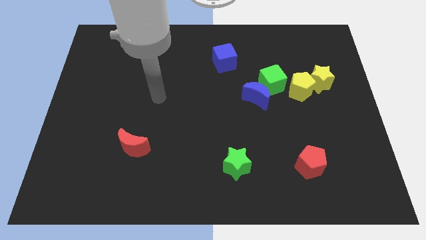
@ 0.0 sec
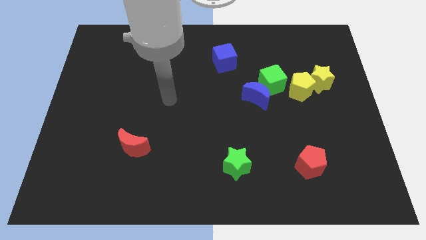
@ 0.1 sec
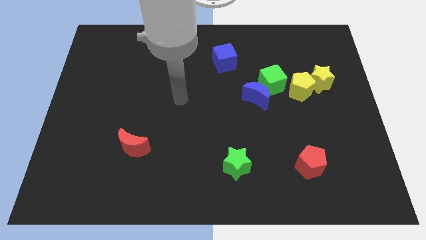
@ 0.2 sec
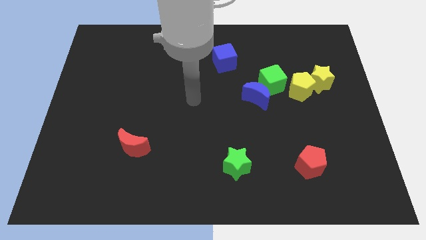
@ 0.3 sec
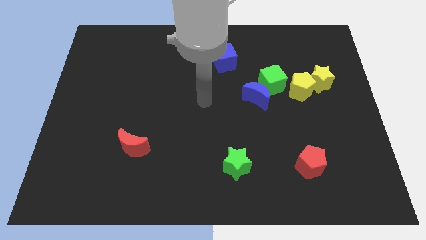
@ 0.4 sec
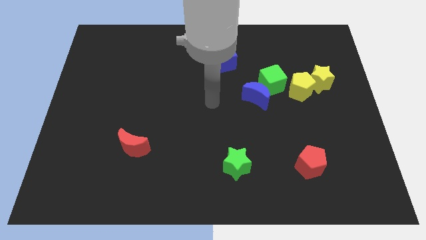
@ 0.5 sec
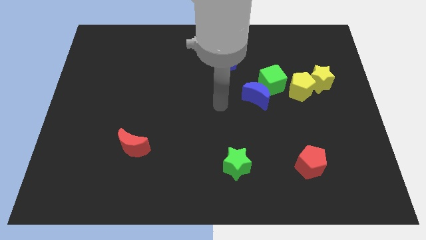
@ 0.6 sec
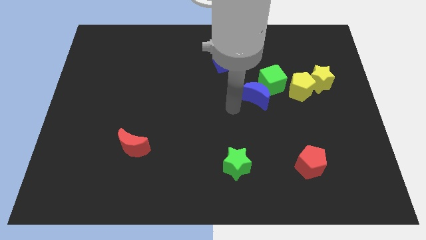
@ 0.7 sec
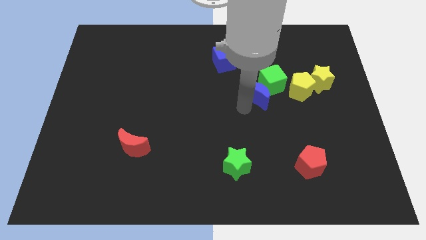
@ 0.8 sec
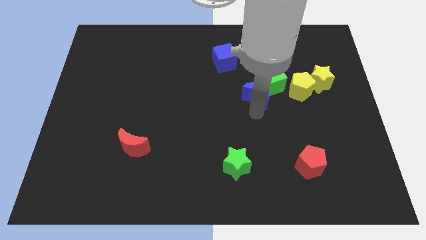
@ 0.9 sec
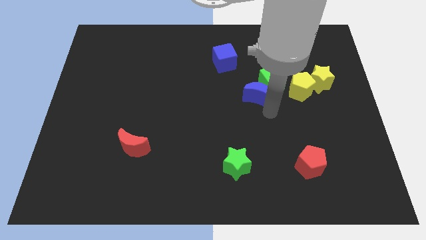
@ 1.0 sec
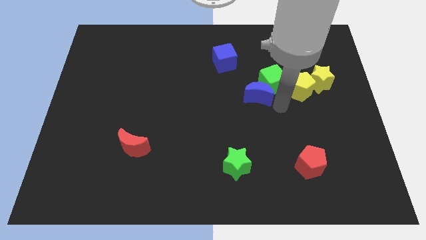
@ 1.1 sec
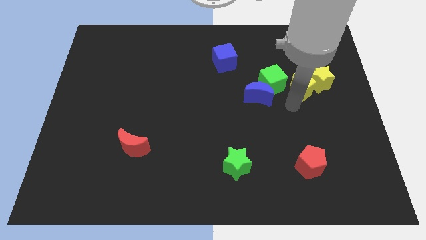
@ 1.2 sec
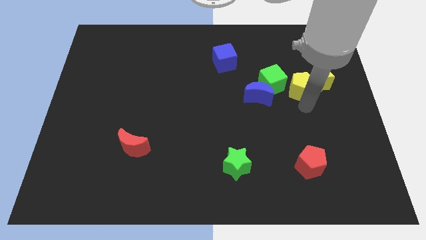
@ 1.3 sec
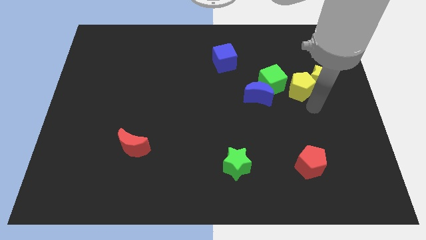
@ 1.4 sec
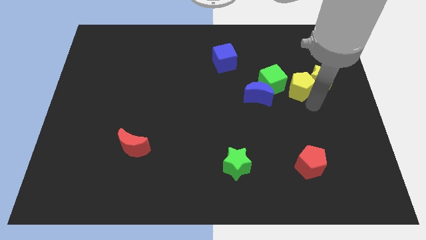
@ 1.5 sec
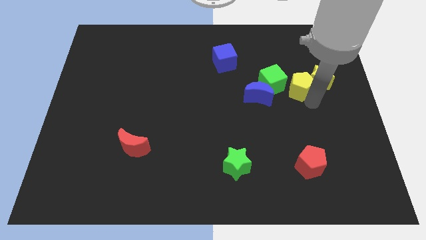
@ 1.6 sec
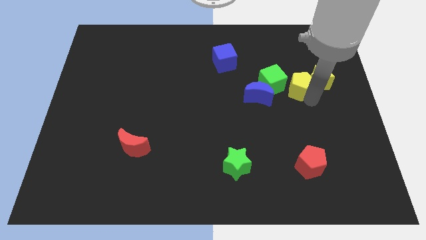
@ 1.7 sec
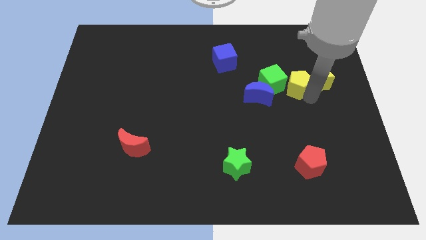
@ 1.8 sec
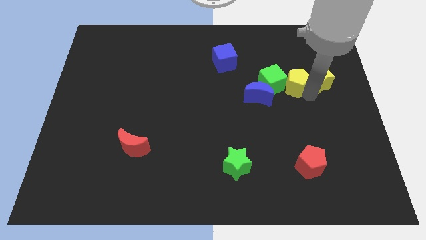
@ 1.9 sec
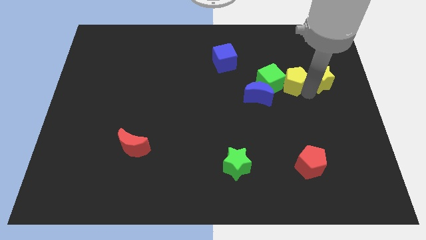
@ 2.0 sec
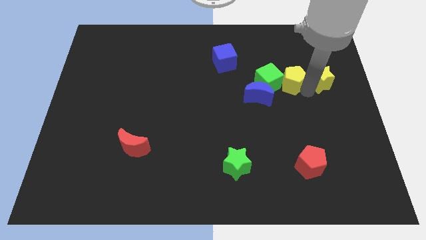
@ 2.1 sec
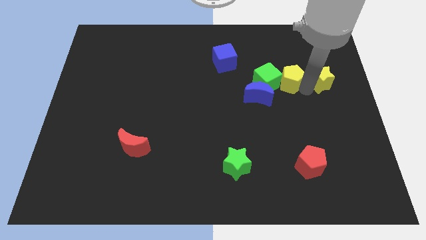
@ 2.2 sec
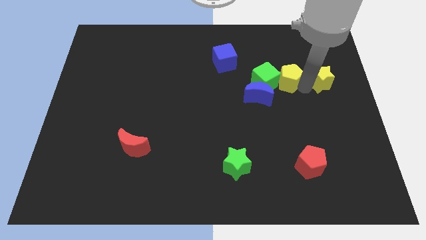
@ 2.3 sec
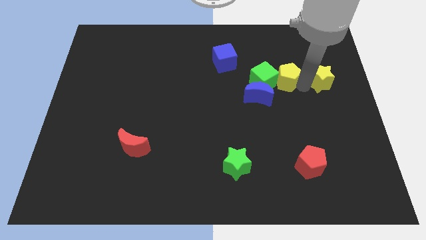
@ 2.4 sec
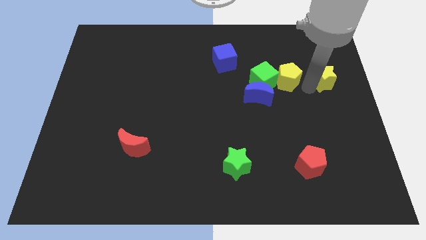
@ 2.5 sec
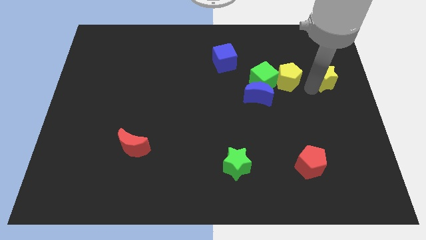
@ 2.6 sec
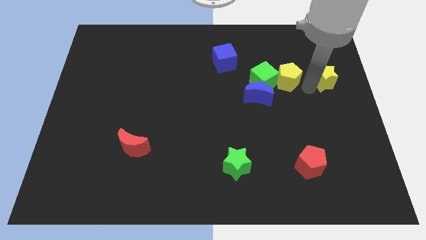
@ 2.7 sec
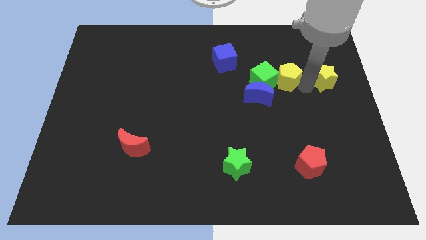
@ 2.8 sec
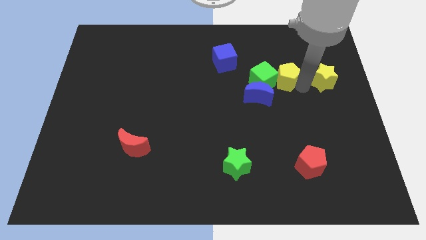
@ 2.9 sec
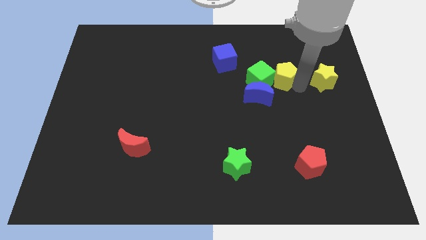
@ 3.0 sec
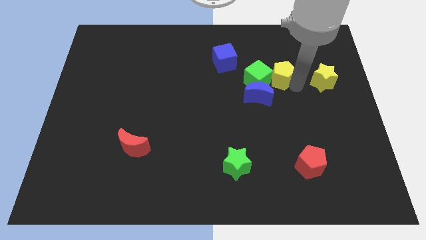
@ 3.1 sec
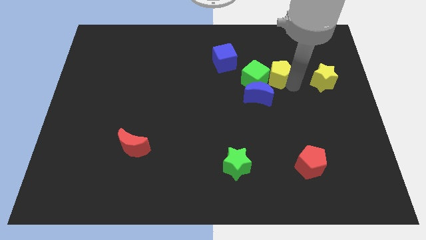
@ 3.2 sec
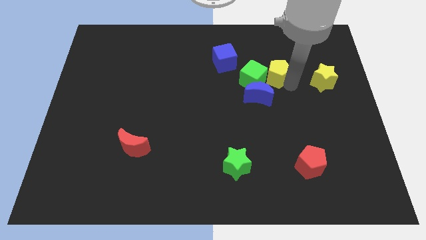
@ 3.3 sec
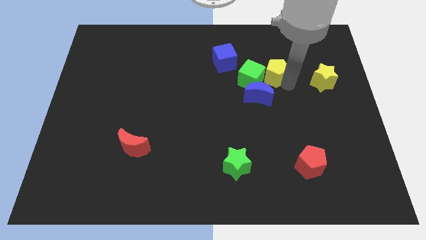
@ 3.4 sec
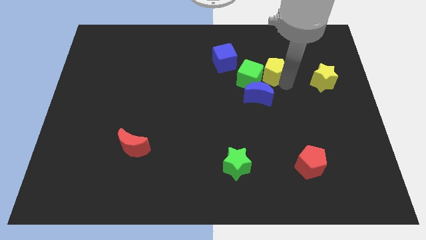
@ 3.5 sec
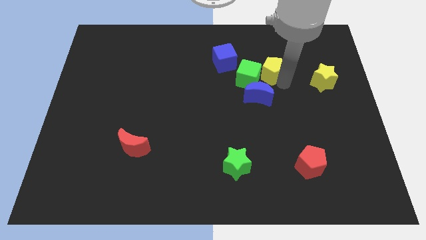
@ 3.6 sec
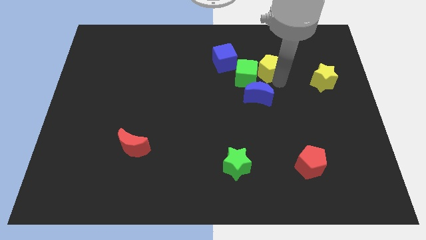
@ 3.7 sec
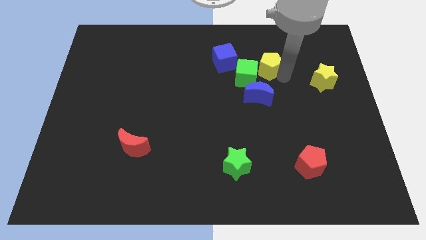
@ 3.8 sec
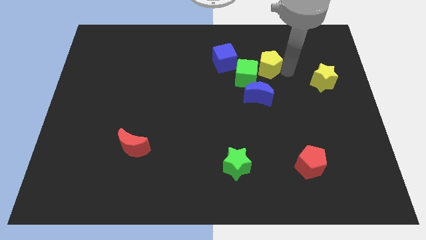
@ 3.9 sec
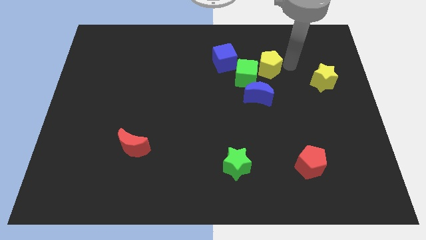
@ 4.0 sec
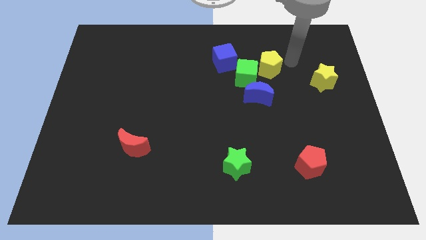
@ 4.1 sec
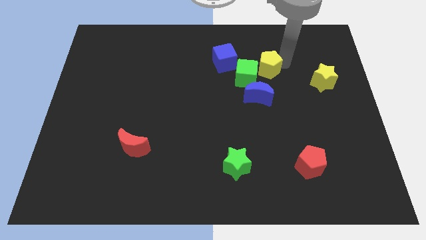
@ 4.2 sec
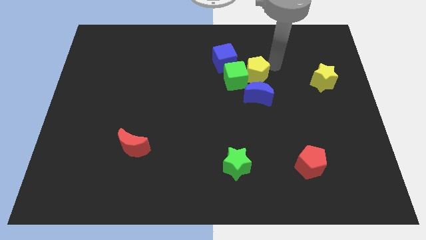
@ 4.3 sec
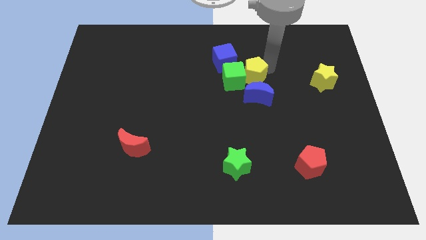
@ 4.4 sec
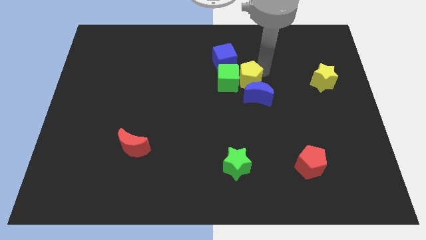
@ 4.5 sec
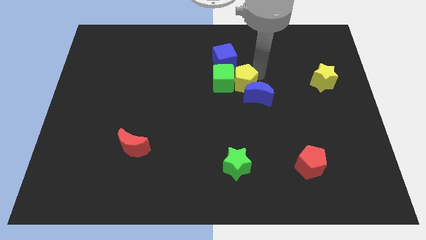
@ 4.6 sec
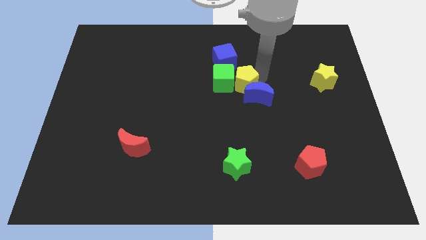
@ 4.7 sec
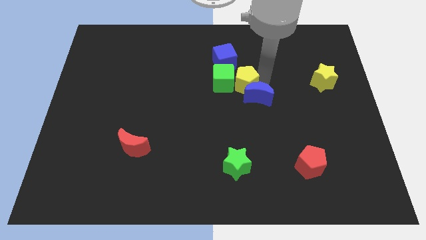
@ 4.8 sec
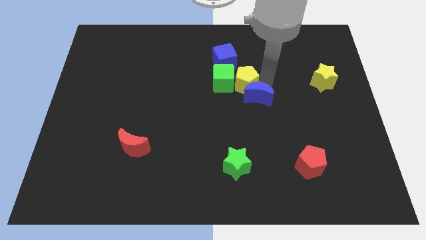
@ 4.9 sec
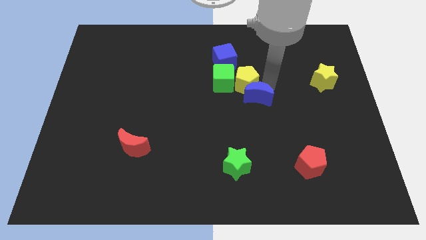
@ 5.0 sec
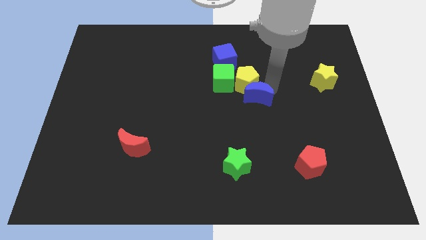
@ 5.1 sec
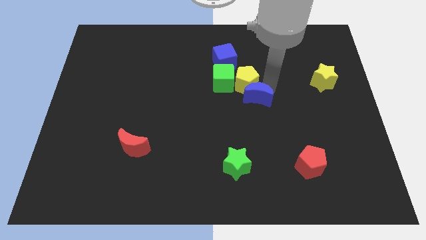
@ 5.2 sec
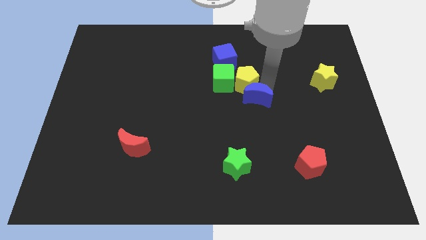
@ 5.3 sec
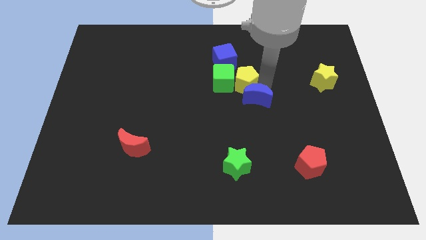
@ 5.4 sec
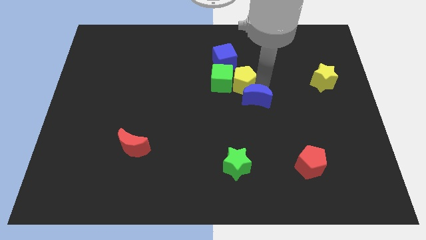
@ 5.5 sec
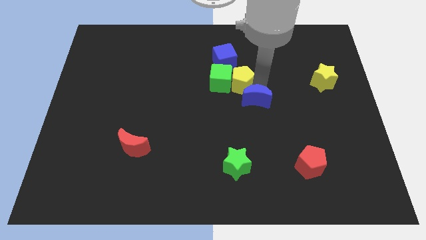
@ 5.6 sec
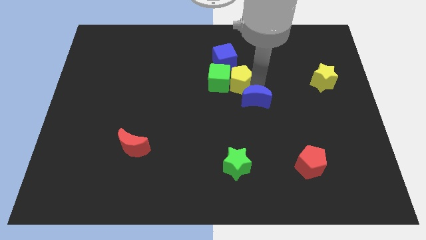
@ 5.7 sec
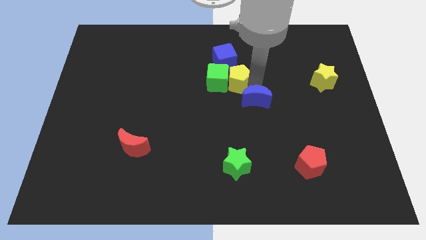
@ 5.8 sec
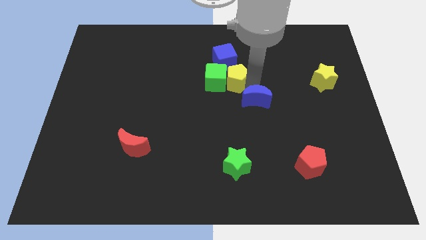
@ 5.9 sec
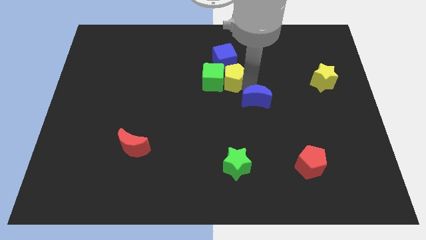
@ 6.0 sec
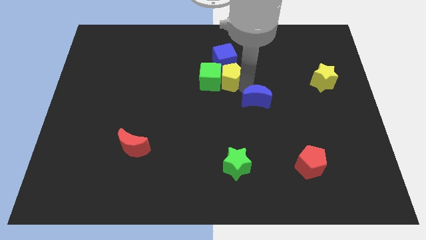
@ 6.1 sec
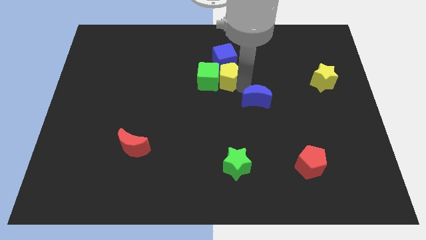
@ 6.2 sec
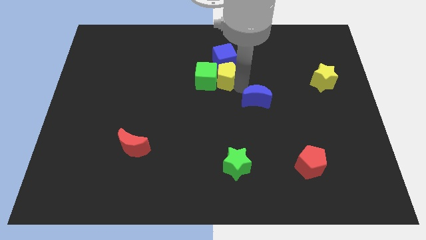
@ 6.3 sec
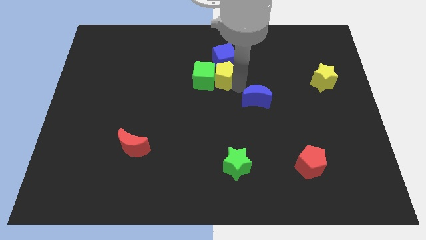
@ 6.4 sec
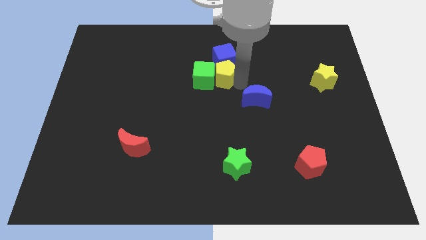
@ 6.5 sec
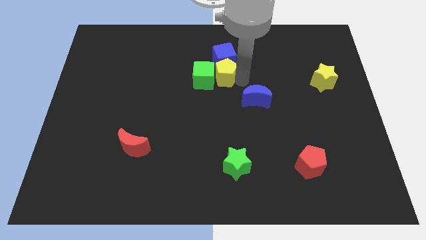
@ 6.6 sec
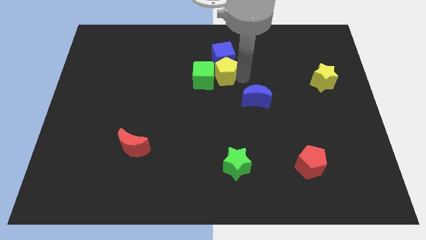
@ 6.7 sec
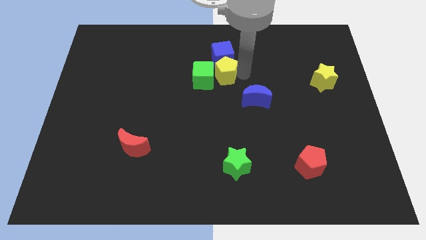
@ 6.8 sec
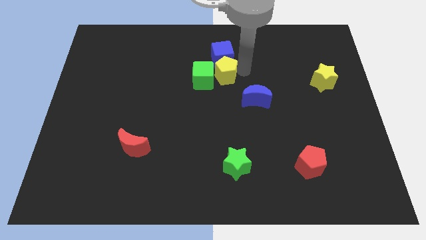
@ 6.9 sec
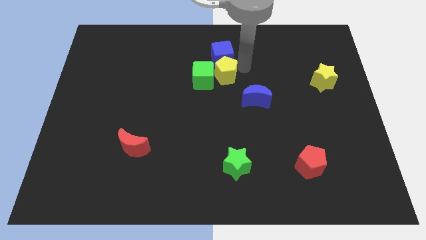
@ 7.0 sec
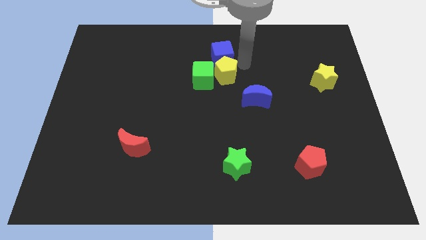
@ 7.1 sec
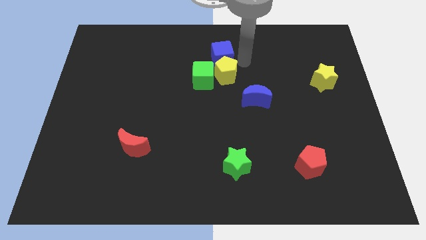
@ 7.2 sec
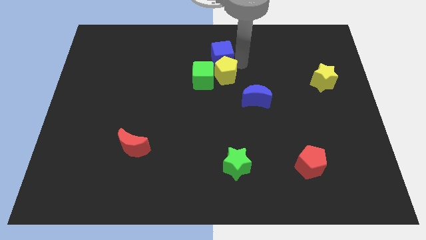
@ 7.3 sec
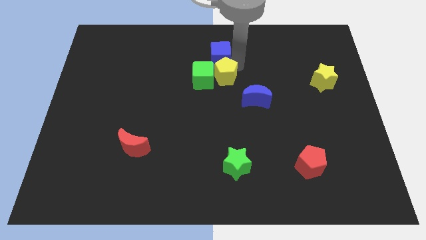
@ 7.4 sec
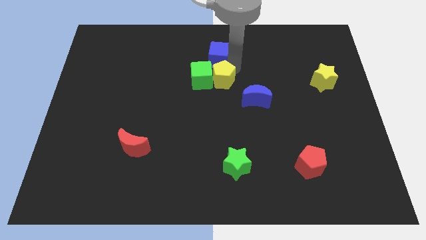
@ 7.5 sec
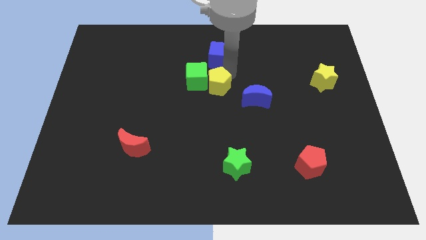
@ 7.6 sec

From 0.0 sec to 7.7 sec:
push the yellow pentagon to the left

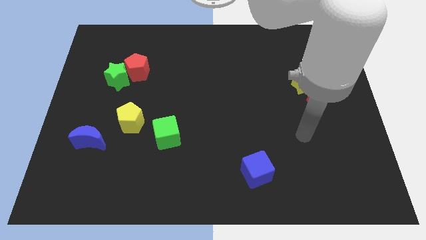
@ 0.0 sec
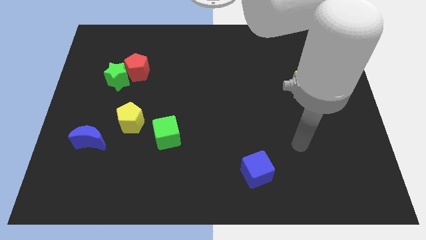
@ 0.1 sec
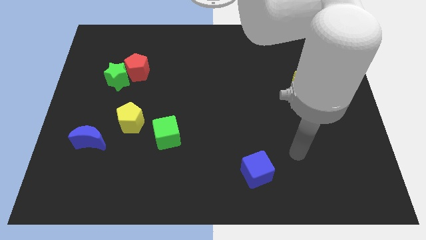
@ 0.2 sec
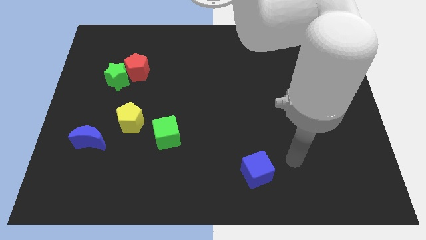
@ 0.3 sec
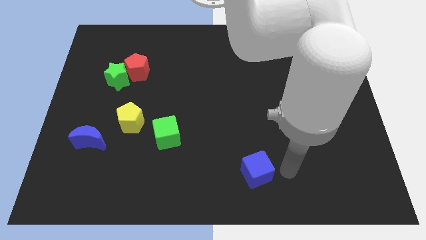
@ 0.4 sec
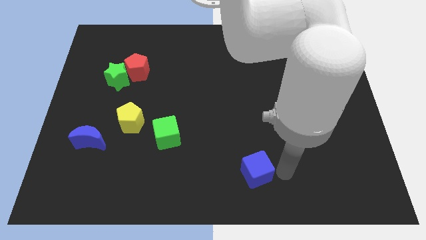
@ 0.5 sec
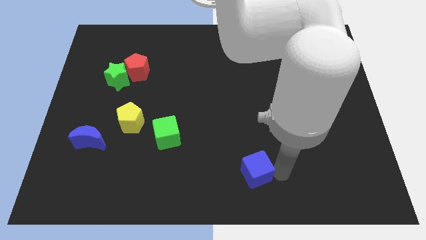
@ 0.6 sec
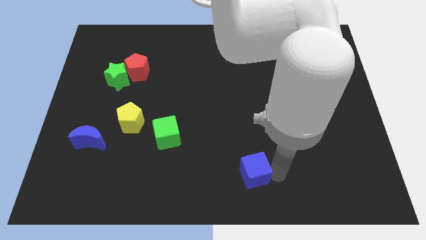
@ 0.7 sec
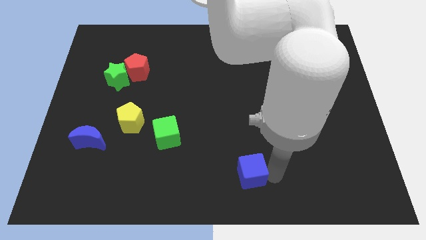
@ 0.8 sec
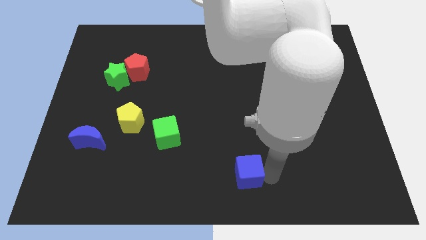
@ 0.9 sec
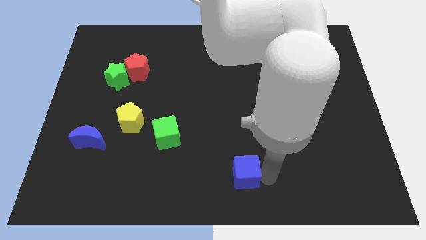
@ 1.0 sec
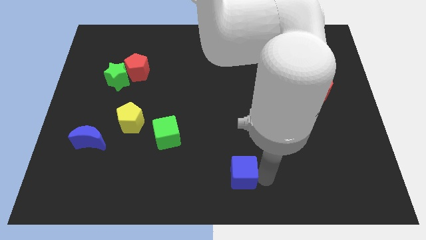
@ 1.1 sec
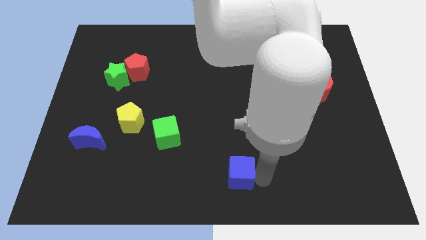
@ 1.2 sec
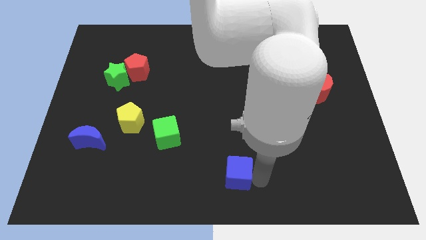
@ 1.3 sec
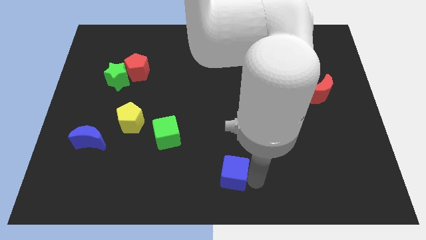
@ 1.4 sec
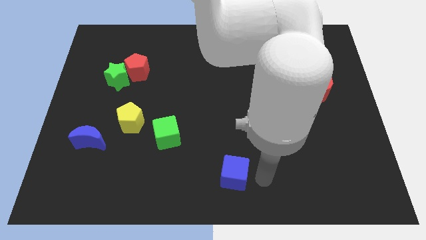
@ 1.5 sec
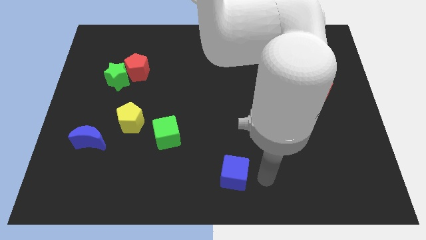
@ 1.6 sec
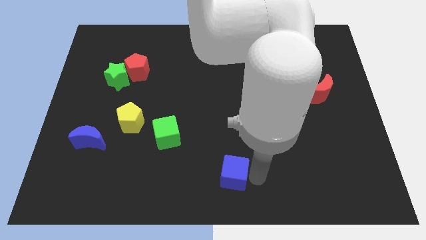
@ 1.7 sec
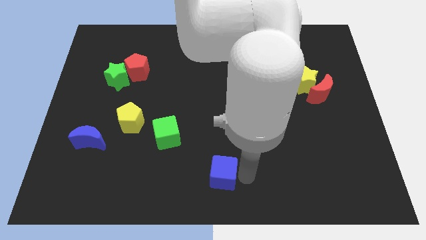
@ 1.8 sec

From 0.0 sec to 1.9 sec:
move the blue cube a little left
